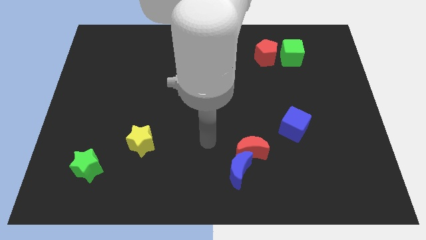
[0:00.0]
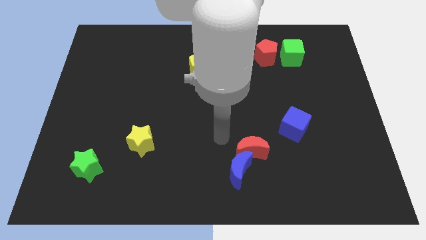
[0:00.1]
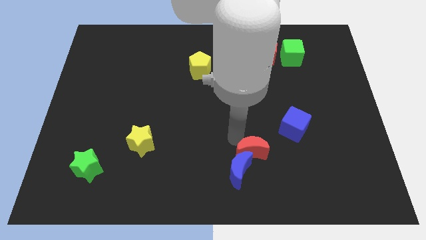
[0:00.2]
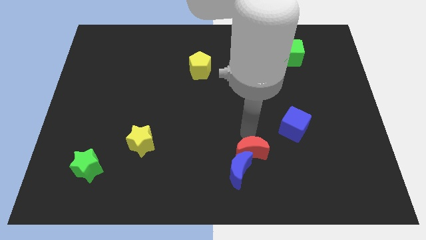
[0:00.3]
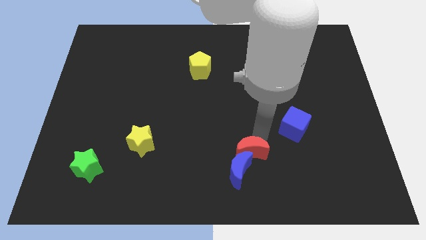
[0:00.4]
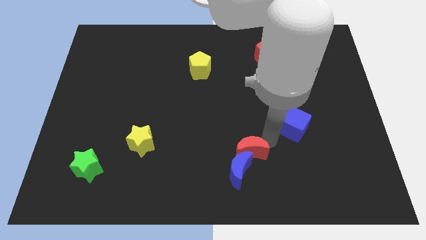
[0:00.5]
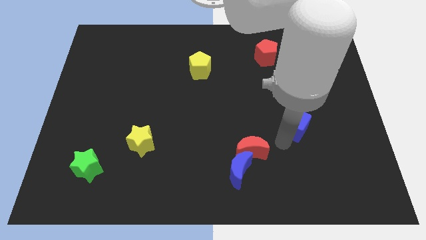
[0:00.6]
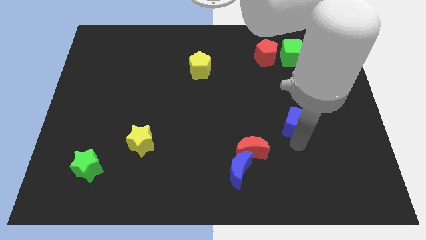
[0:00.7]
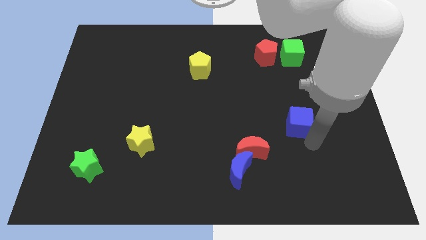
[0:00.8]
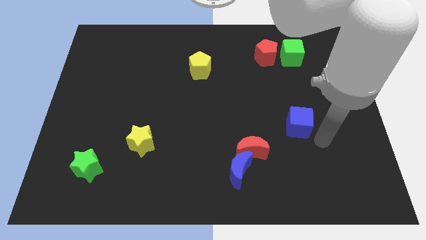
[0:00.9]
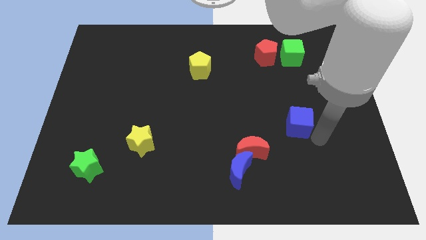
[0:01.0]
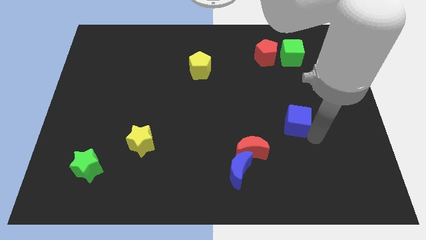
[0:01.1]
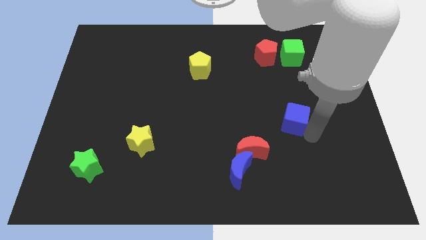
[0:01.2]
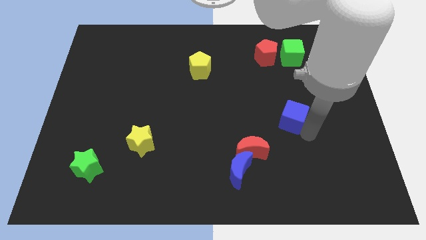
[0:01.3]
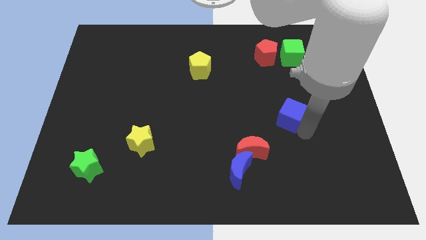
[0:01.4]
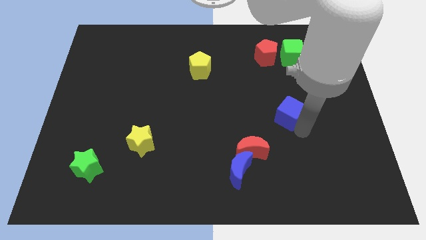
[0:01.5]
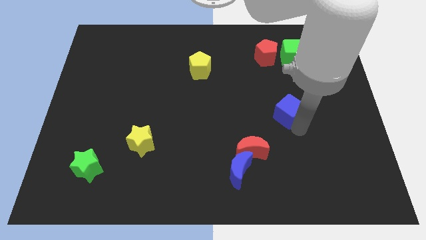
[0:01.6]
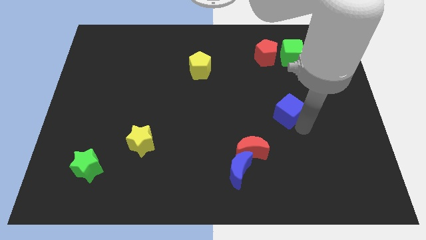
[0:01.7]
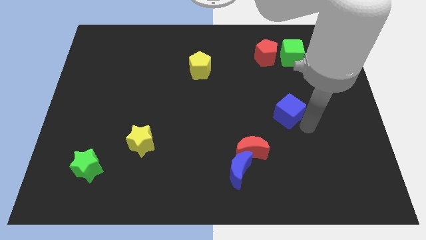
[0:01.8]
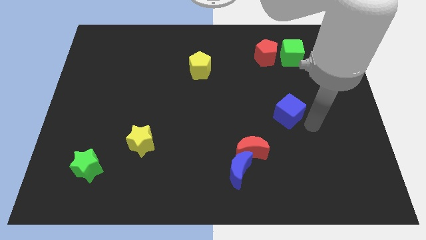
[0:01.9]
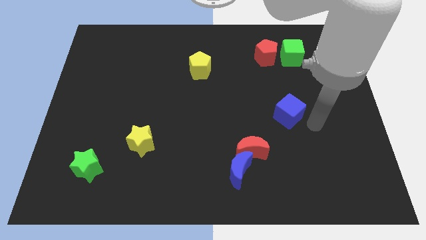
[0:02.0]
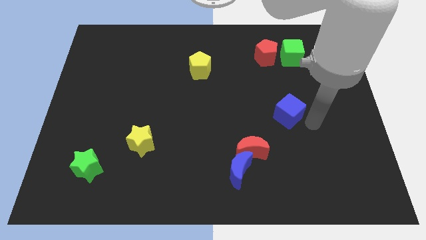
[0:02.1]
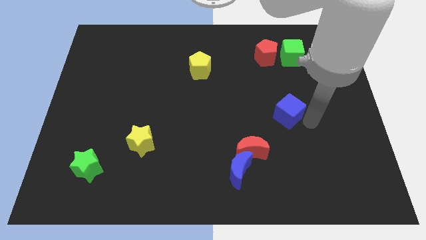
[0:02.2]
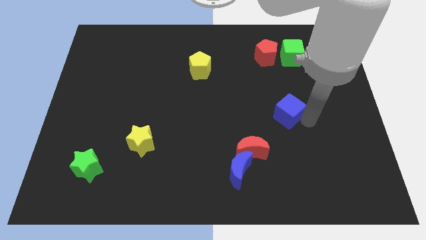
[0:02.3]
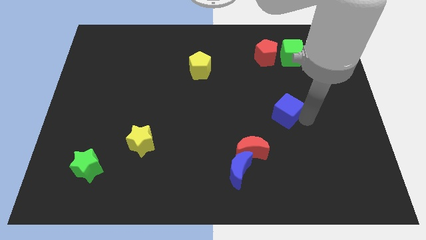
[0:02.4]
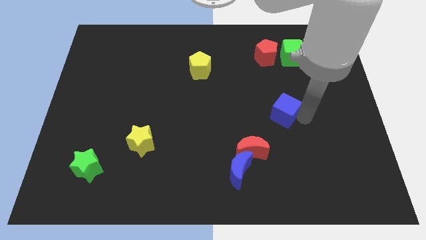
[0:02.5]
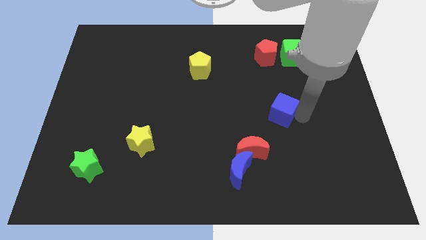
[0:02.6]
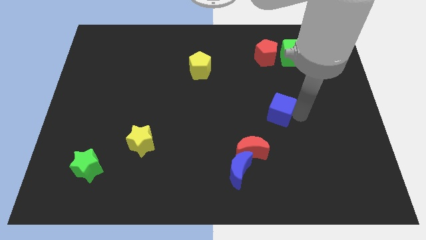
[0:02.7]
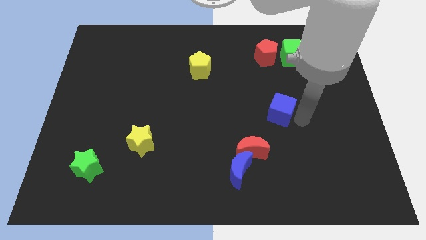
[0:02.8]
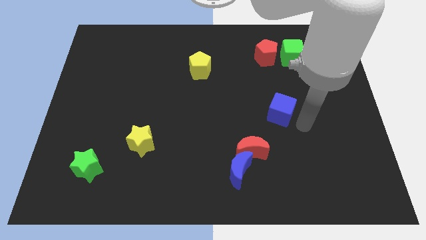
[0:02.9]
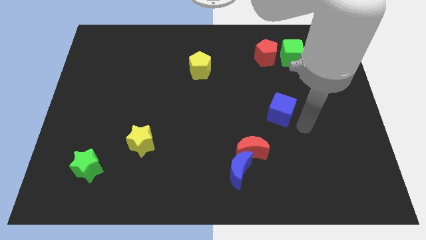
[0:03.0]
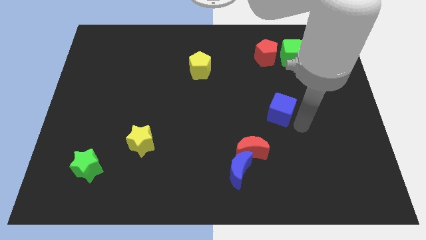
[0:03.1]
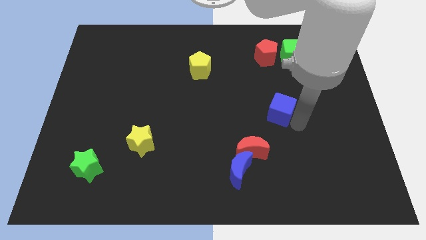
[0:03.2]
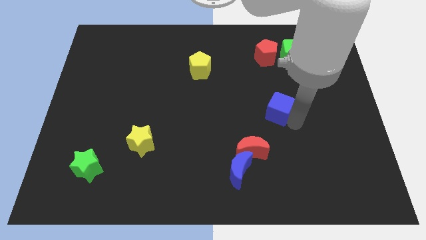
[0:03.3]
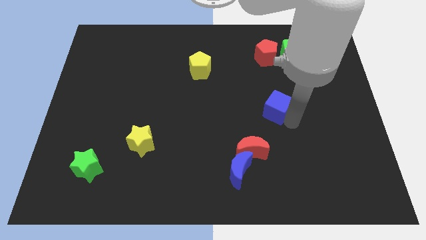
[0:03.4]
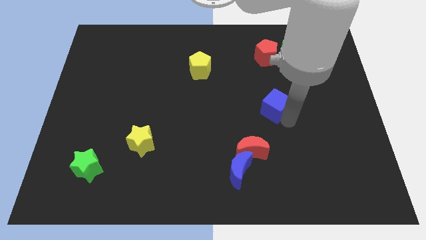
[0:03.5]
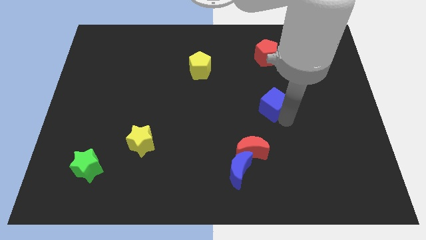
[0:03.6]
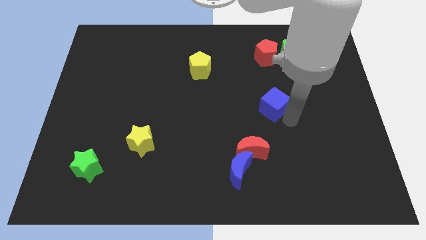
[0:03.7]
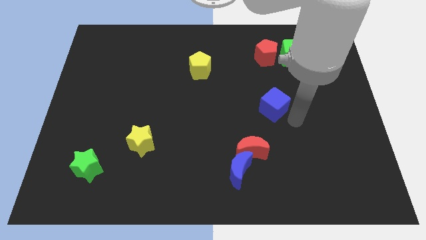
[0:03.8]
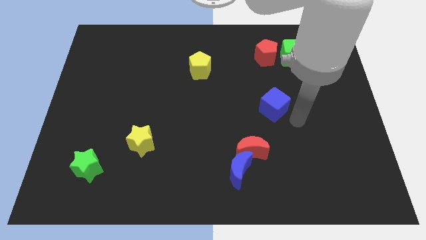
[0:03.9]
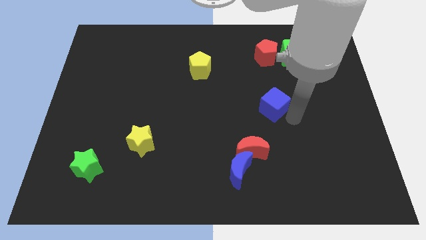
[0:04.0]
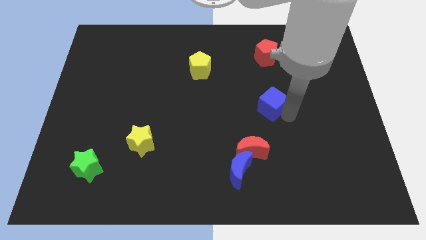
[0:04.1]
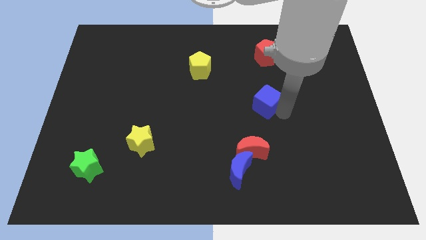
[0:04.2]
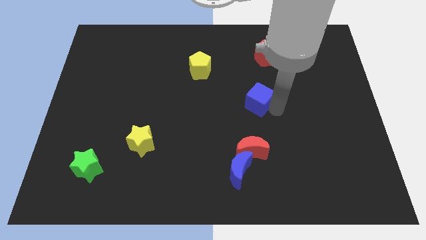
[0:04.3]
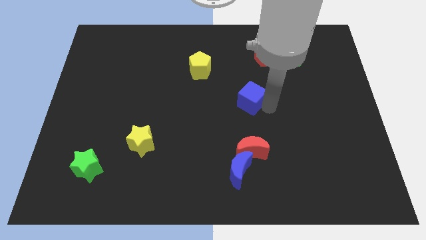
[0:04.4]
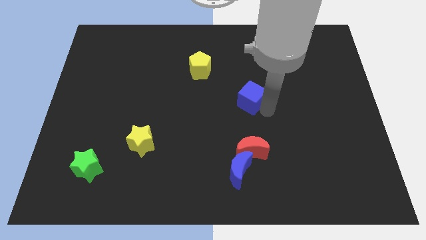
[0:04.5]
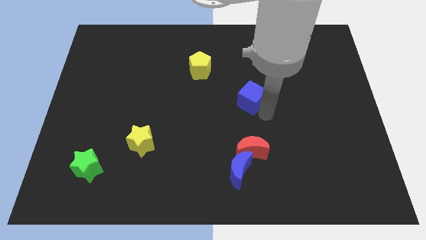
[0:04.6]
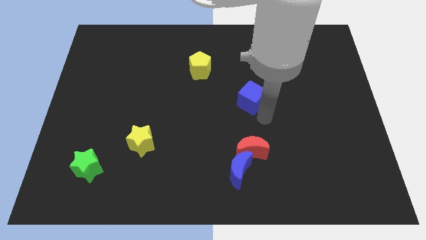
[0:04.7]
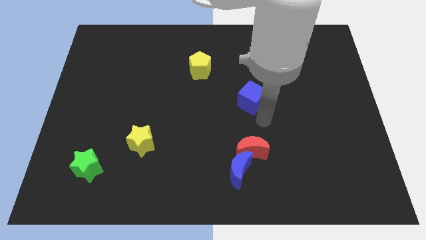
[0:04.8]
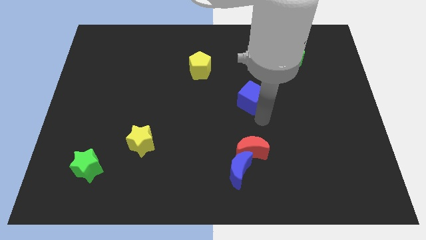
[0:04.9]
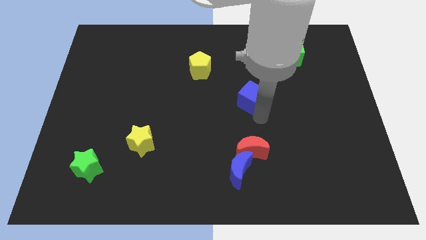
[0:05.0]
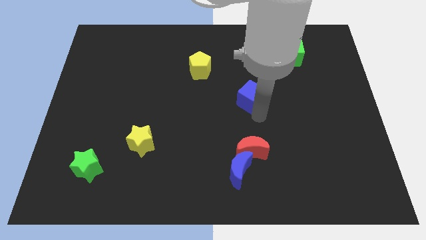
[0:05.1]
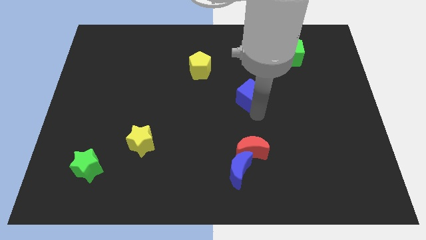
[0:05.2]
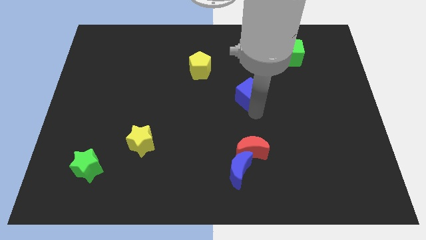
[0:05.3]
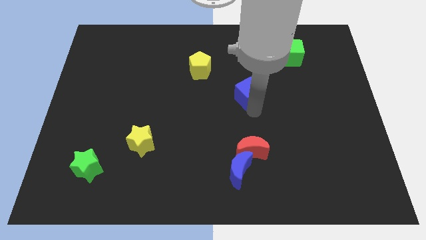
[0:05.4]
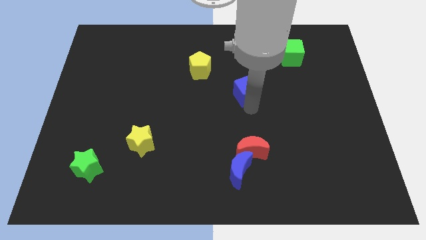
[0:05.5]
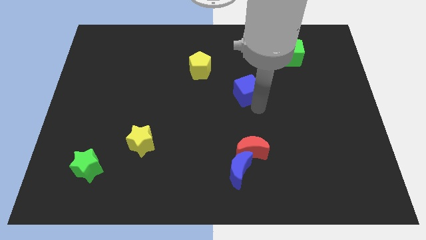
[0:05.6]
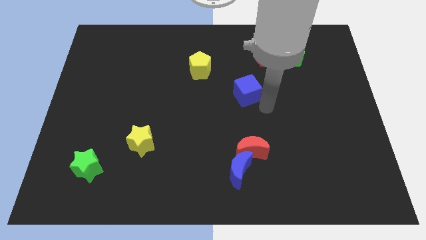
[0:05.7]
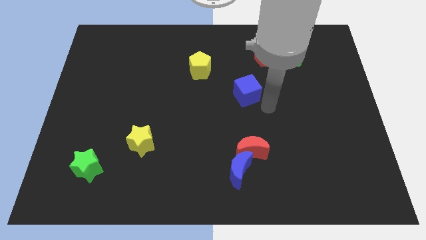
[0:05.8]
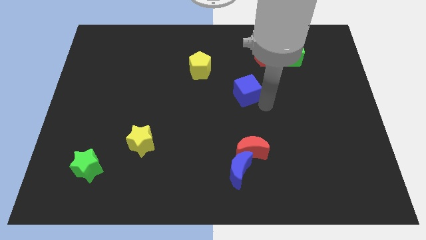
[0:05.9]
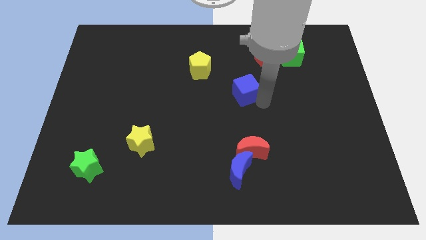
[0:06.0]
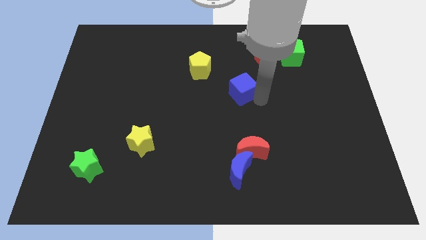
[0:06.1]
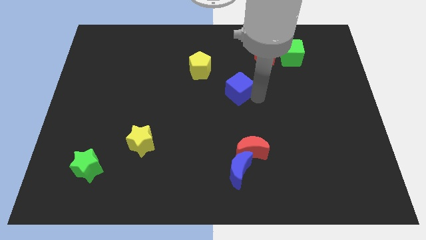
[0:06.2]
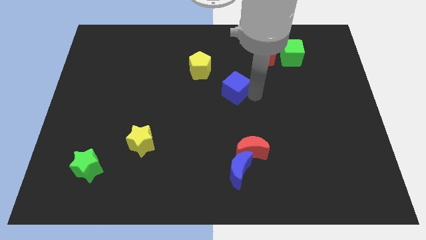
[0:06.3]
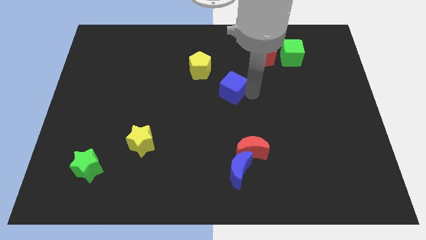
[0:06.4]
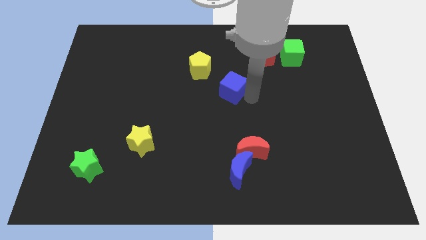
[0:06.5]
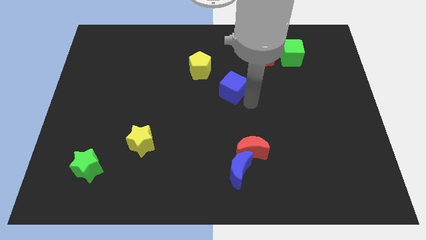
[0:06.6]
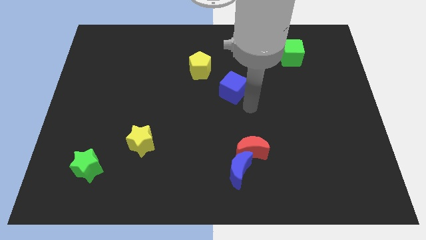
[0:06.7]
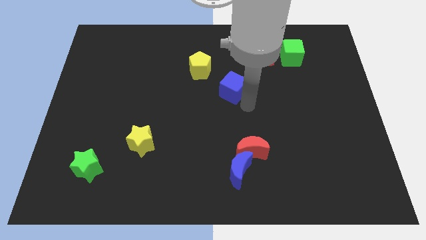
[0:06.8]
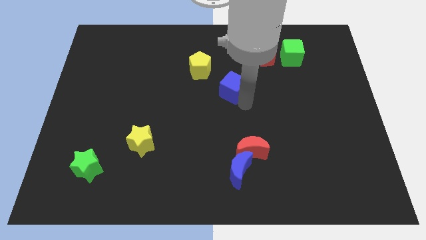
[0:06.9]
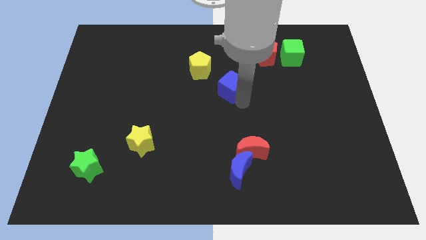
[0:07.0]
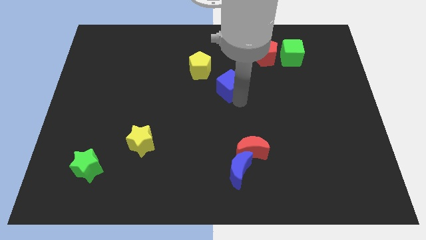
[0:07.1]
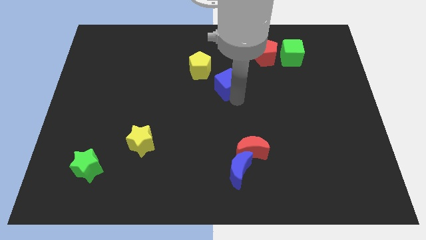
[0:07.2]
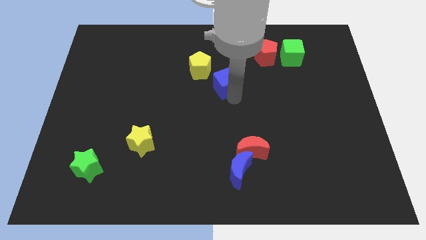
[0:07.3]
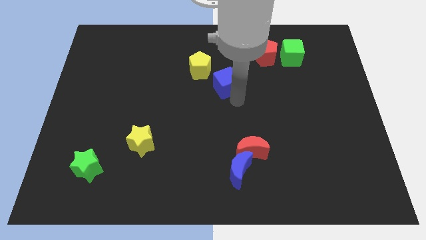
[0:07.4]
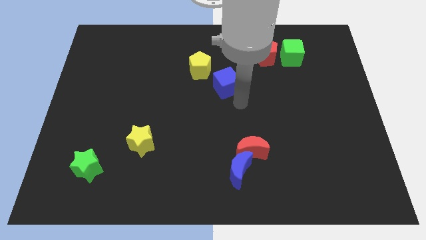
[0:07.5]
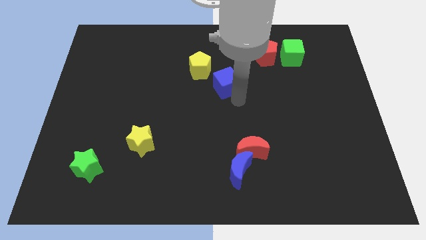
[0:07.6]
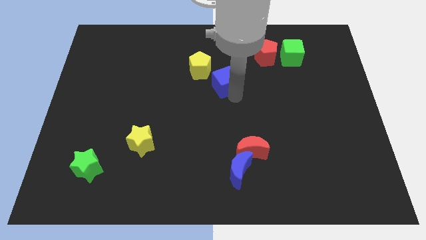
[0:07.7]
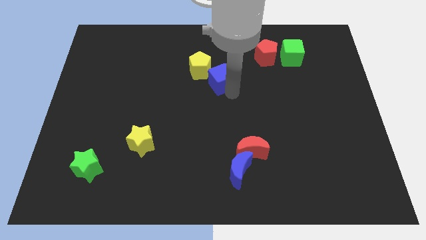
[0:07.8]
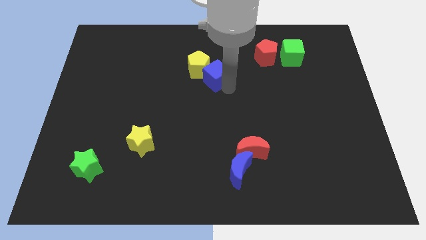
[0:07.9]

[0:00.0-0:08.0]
push the blue cube close to the yellow pentagon

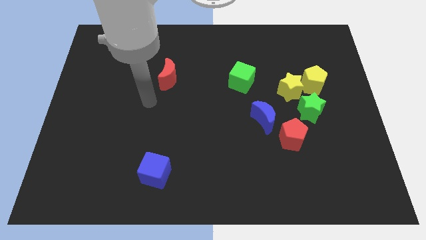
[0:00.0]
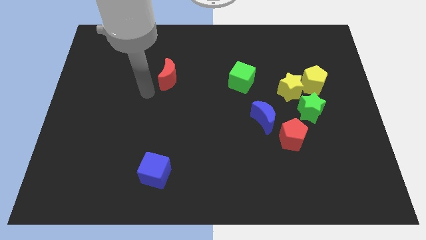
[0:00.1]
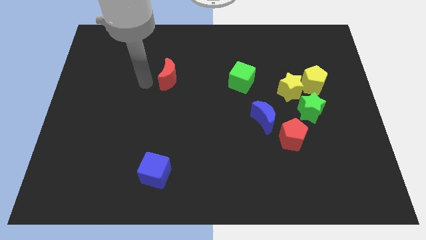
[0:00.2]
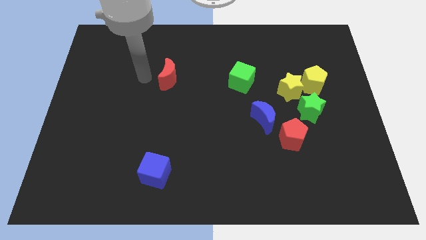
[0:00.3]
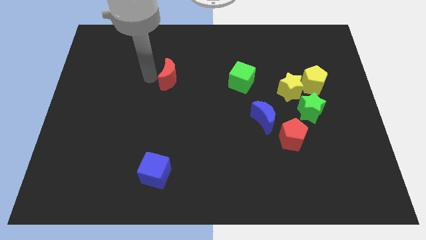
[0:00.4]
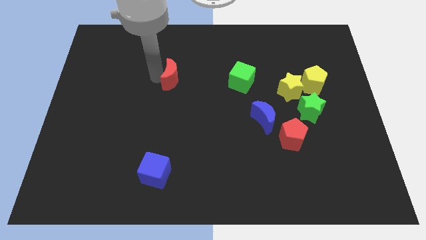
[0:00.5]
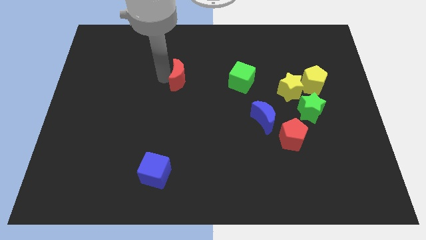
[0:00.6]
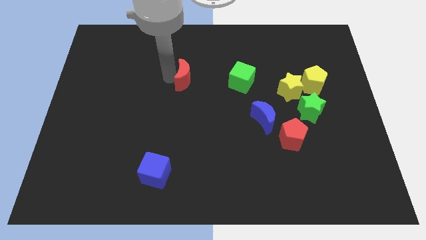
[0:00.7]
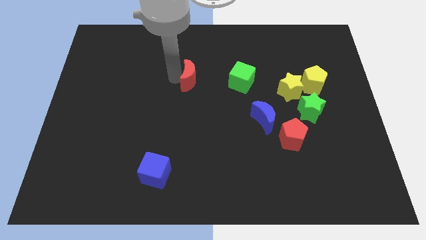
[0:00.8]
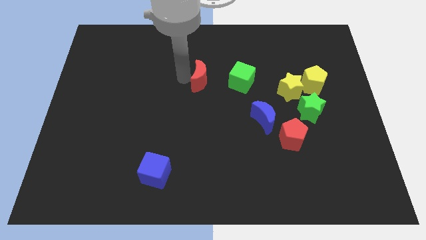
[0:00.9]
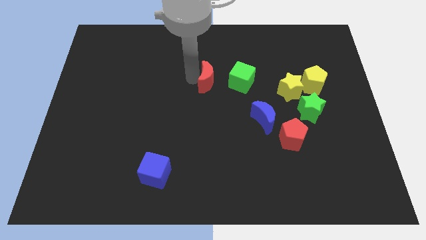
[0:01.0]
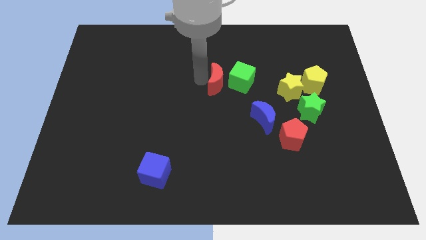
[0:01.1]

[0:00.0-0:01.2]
slide the red moon towards the green cube
